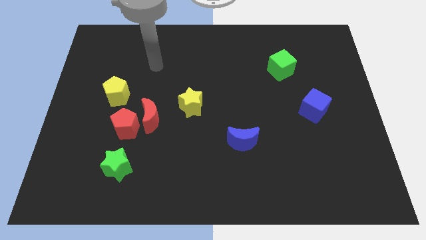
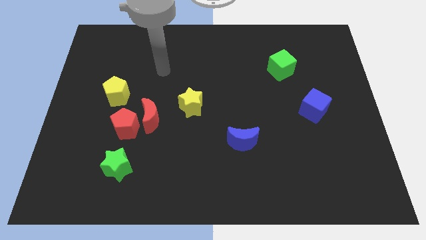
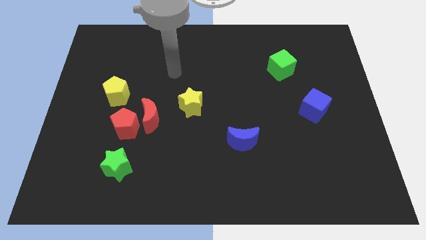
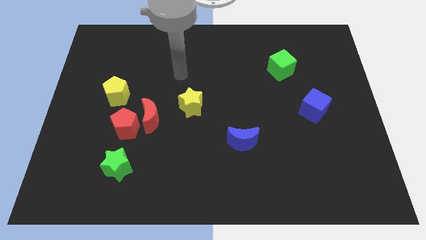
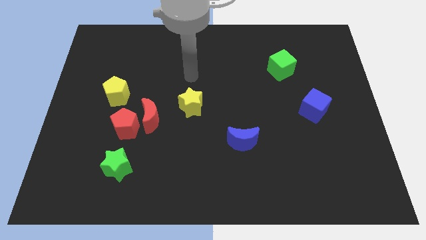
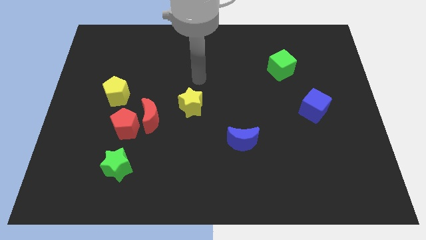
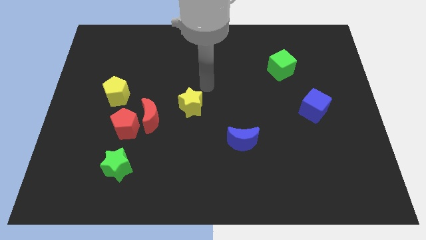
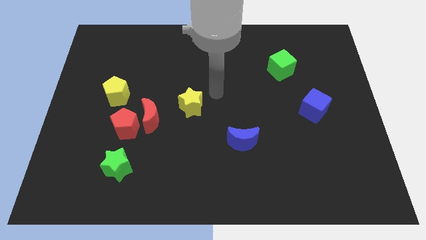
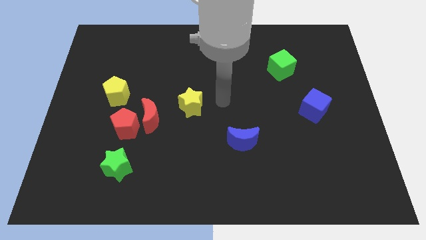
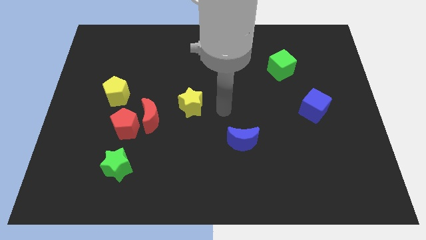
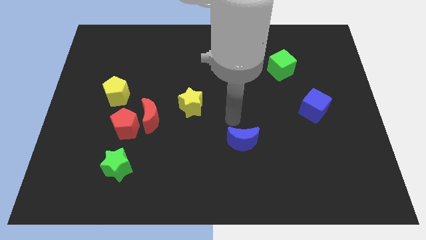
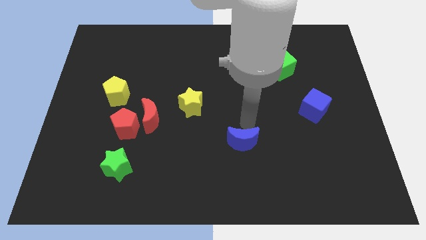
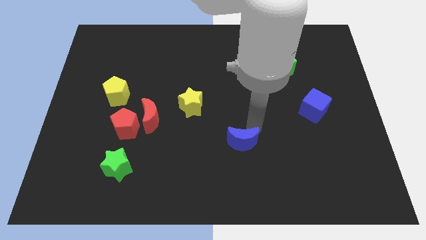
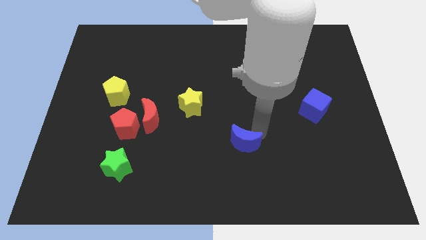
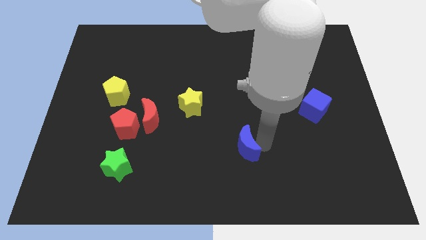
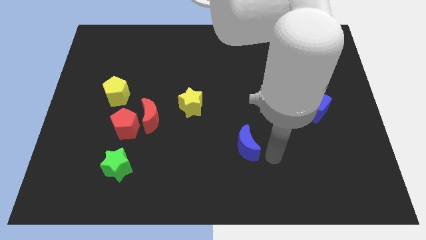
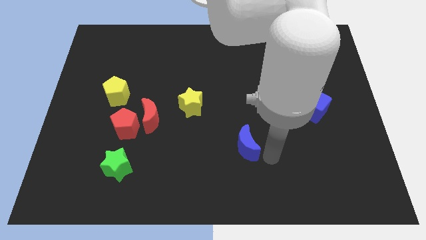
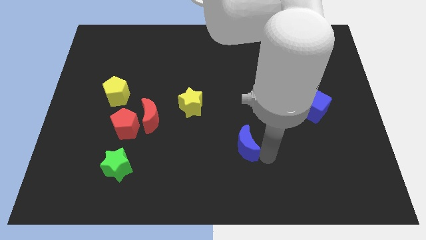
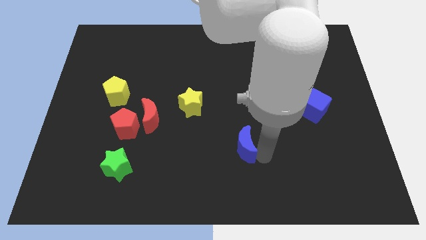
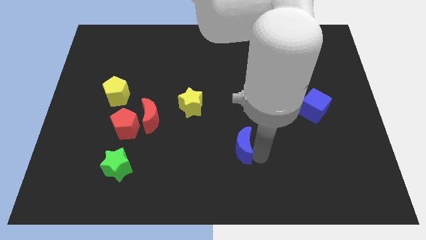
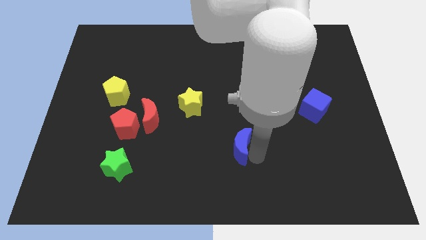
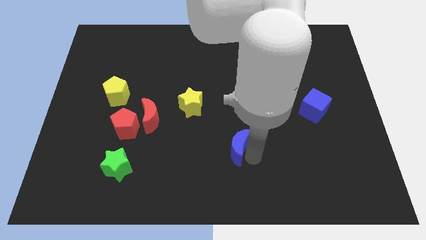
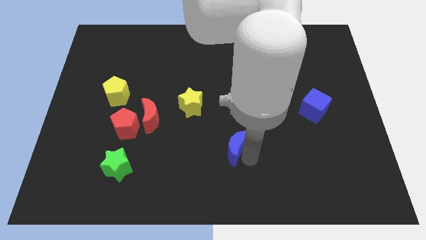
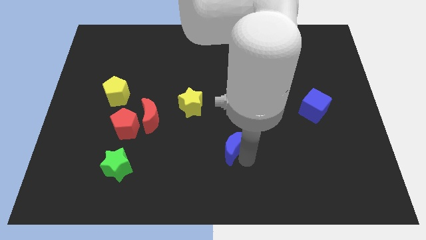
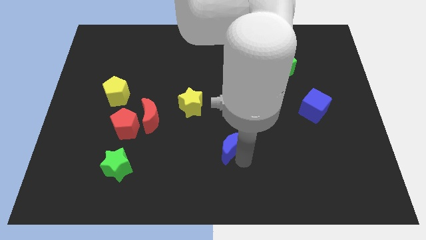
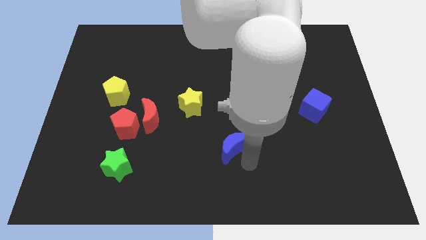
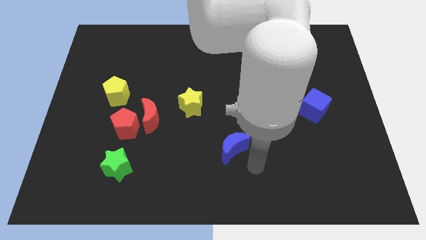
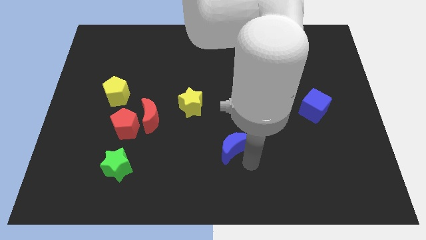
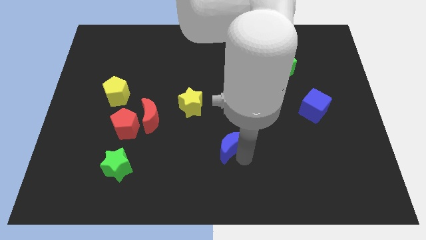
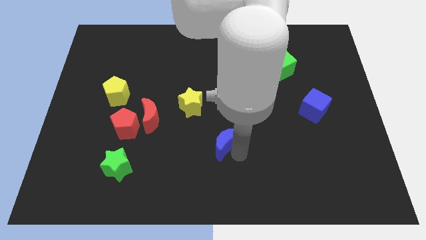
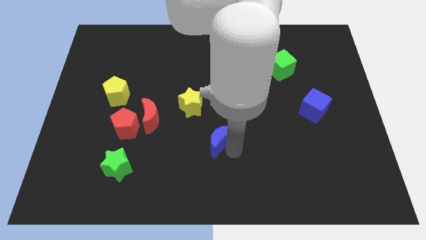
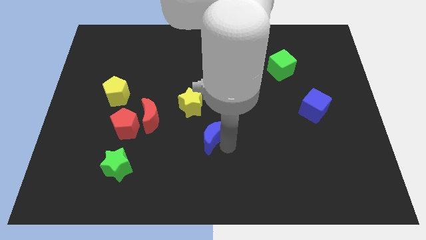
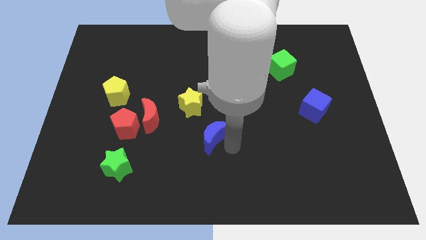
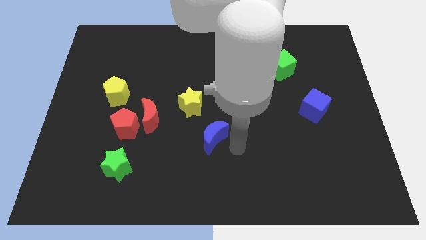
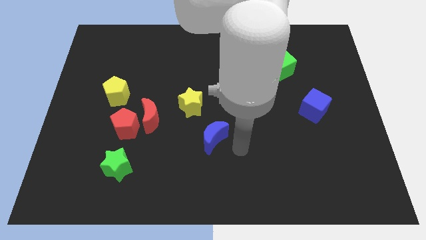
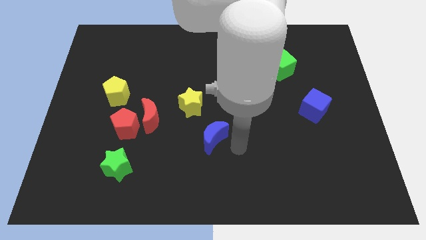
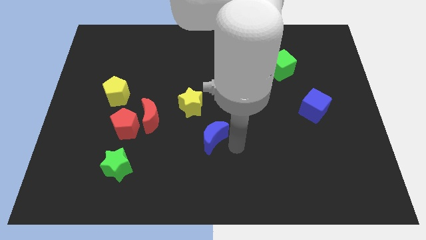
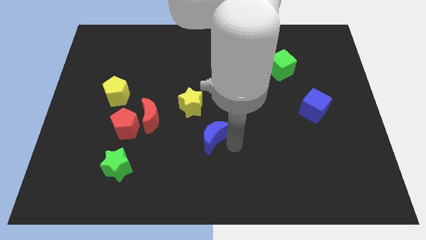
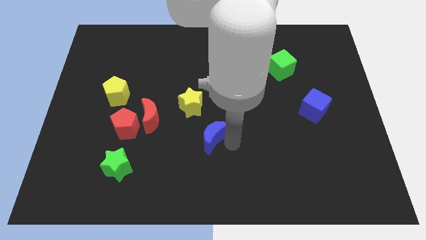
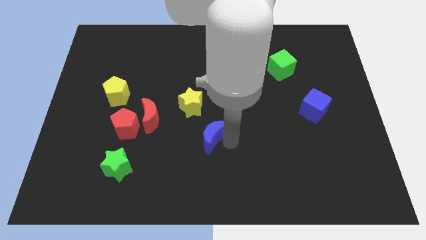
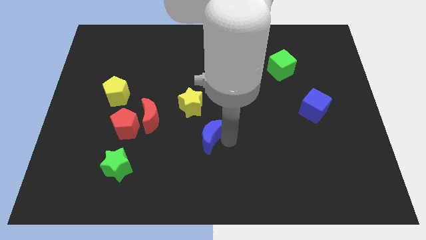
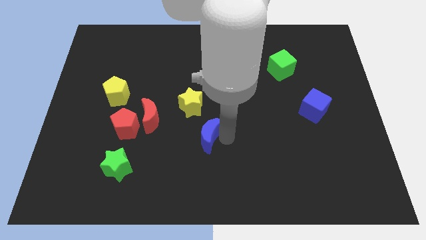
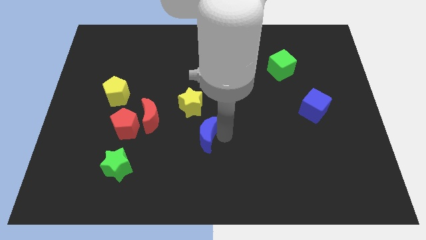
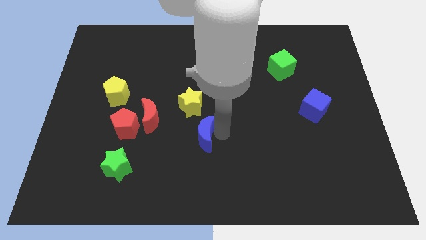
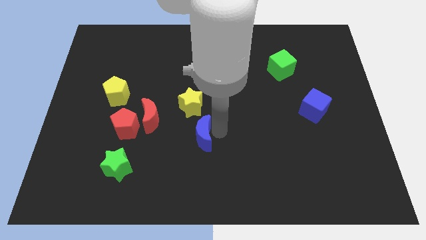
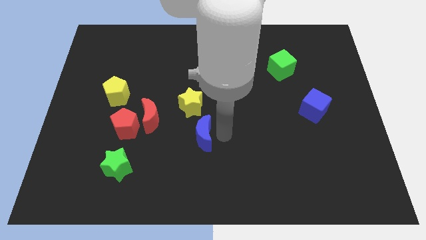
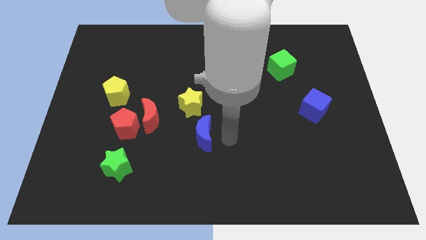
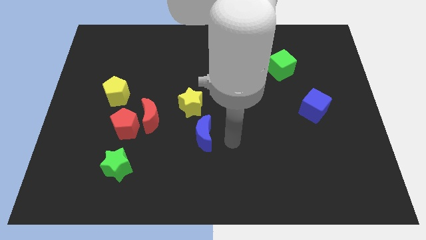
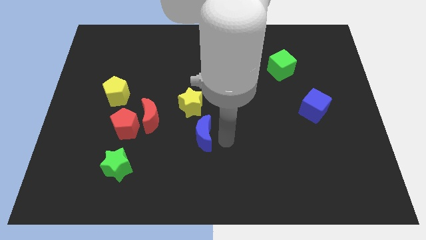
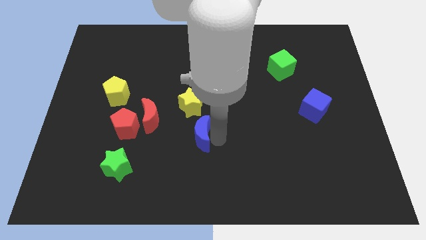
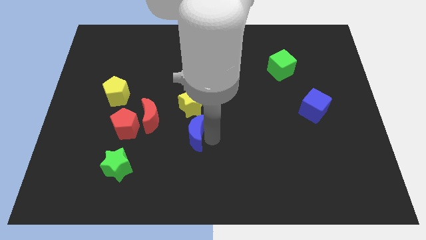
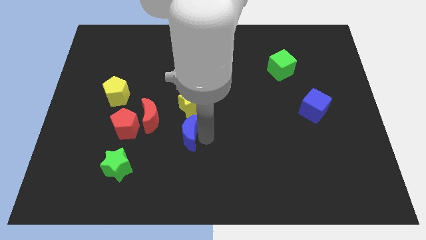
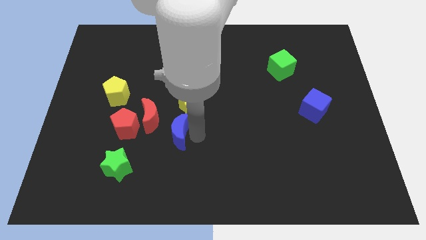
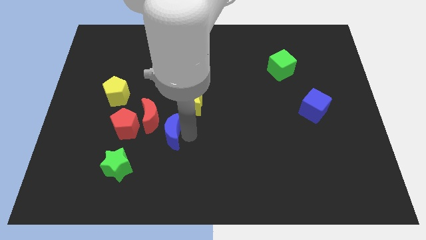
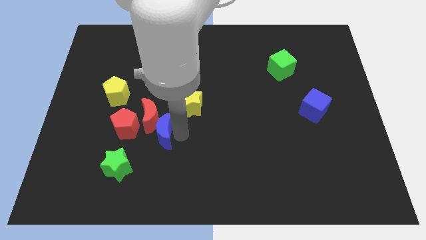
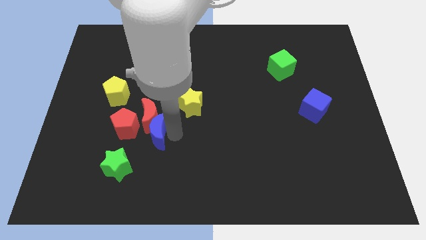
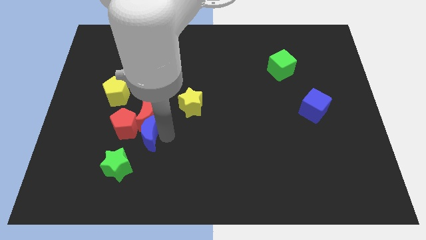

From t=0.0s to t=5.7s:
move the blue moon next to the red pentagon

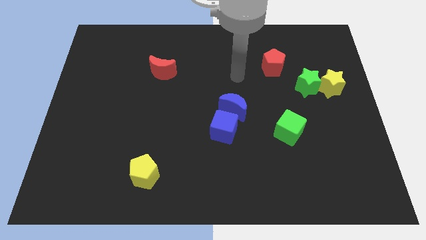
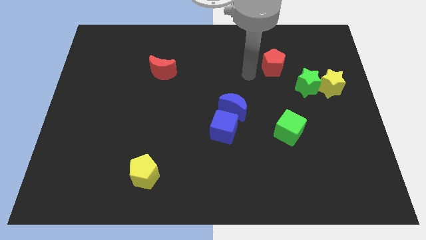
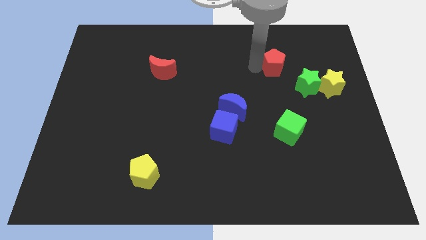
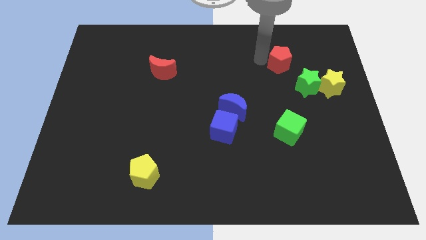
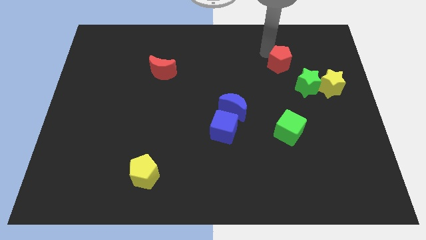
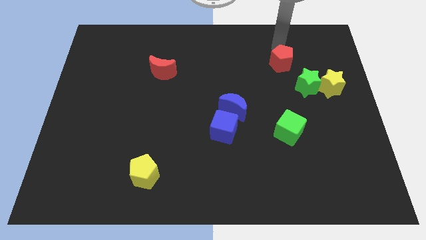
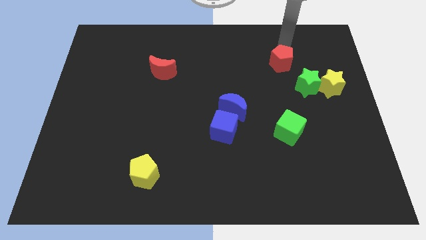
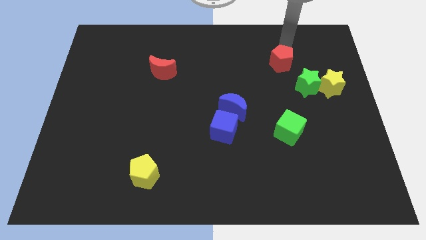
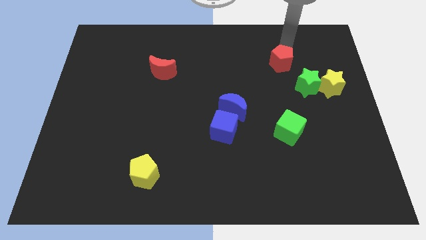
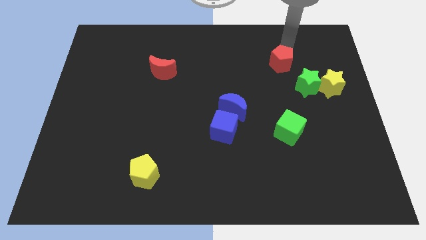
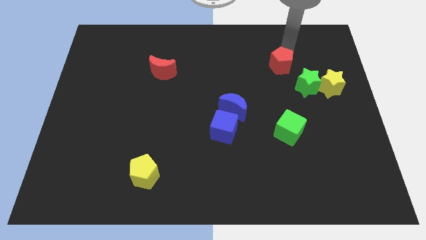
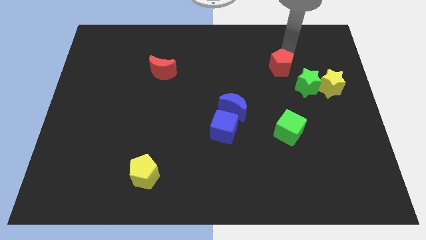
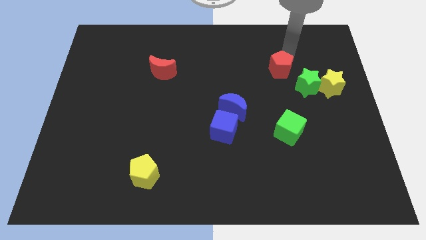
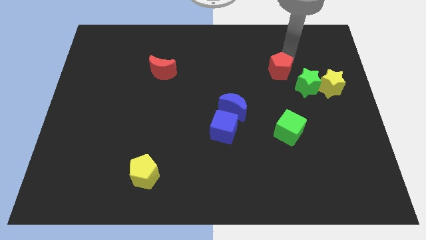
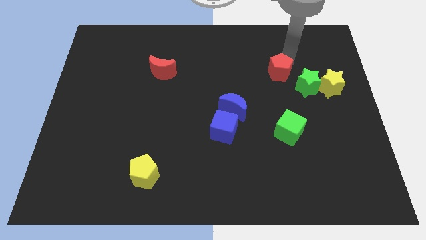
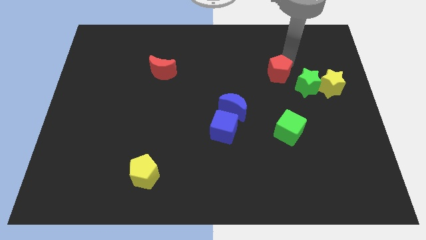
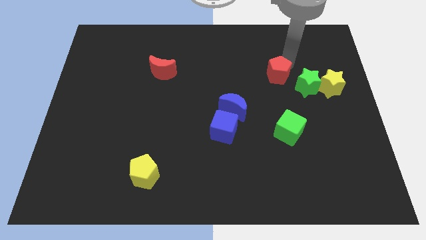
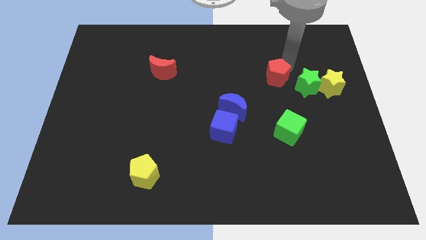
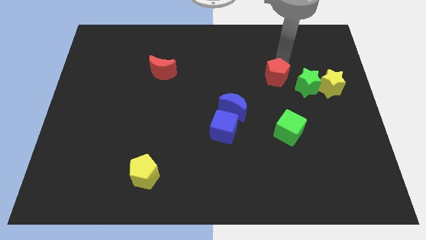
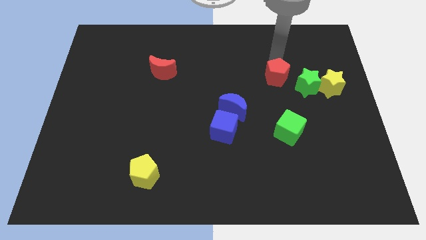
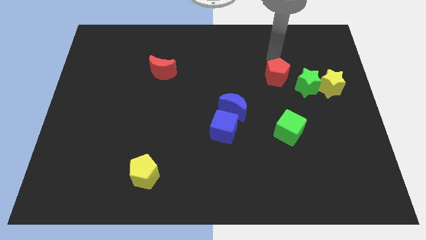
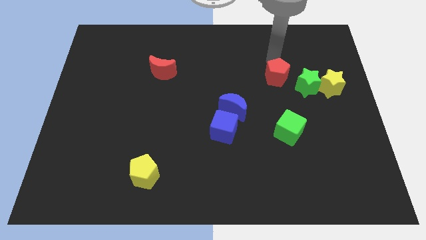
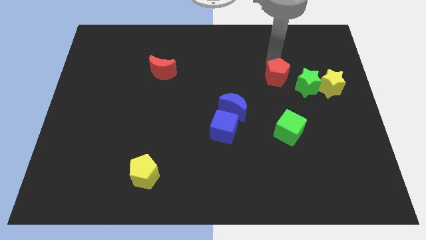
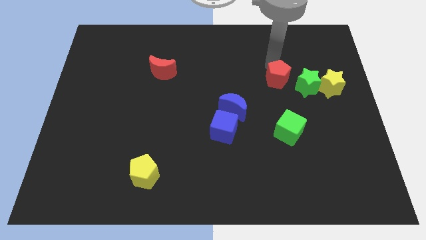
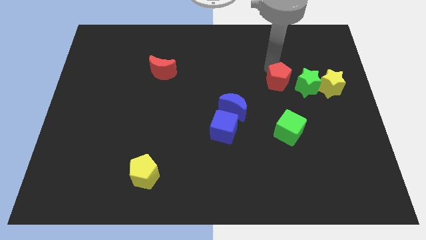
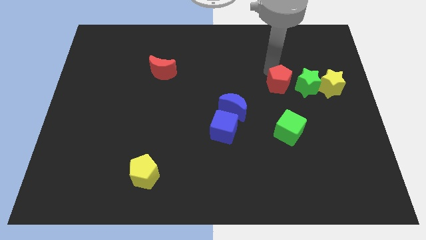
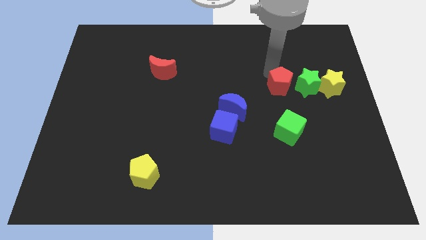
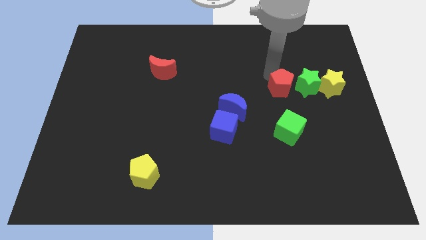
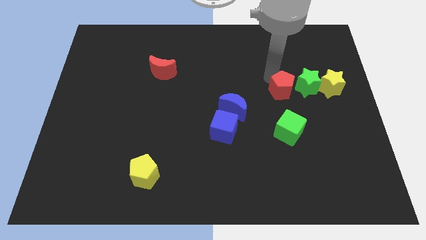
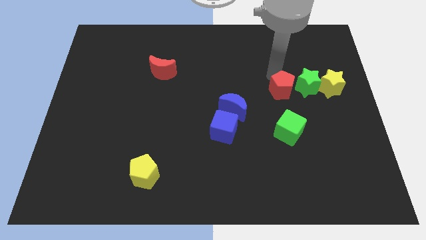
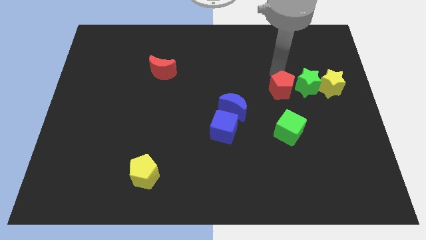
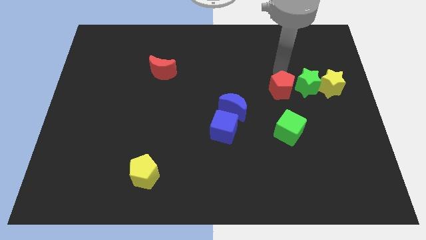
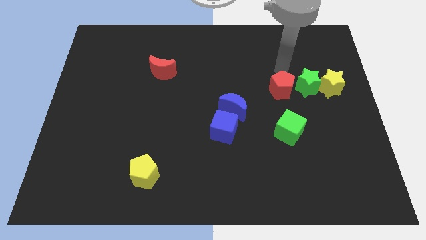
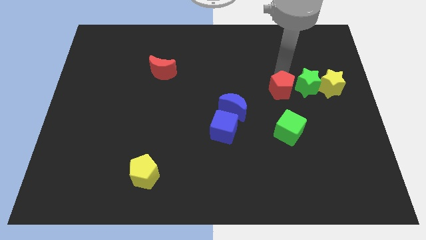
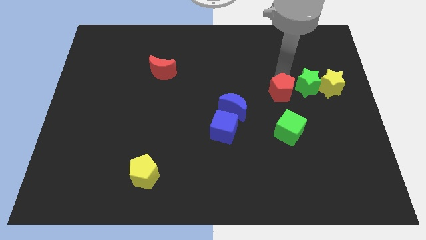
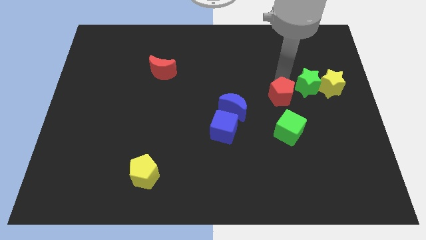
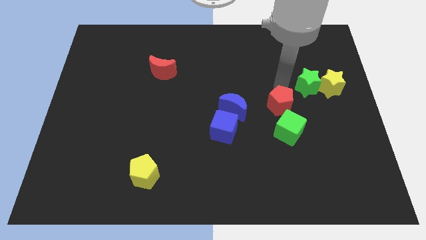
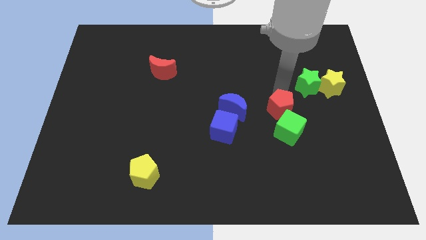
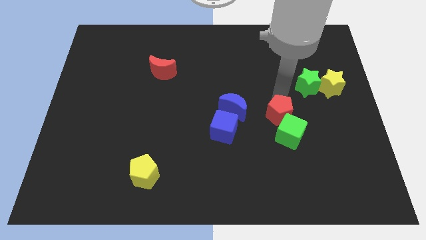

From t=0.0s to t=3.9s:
move the red pentagon next to the green cube
